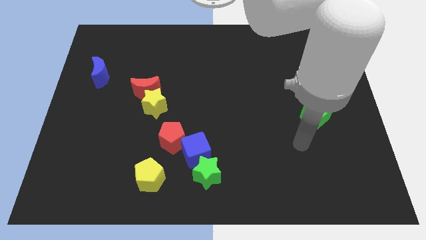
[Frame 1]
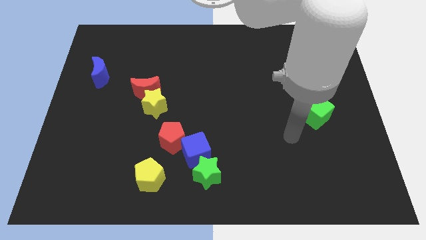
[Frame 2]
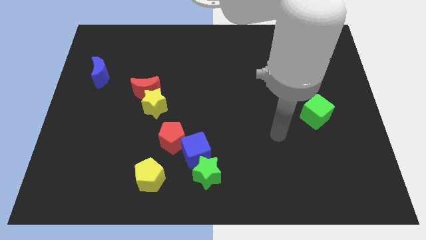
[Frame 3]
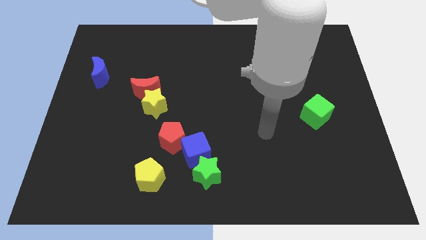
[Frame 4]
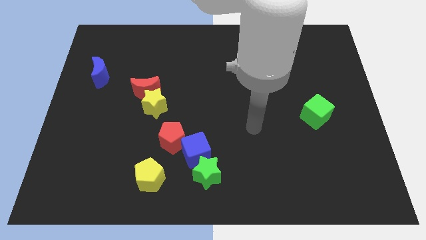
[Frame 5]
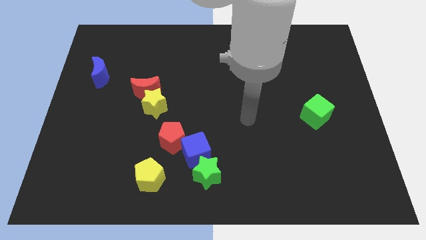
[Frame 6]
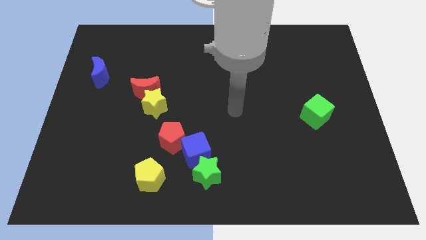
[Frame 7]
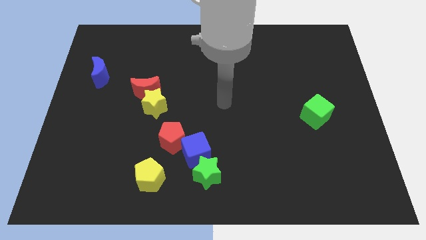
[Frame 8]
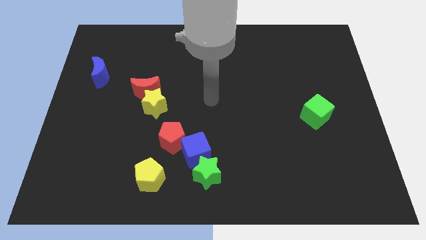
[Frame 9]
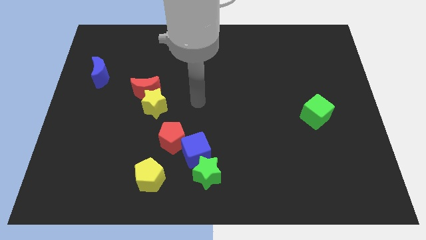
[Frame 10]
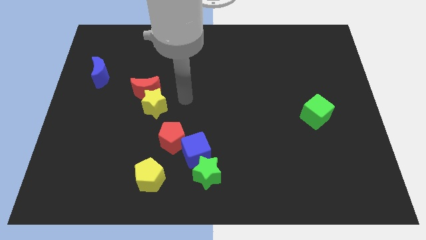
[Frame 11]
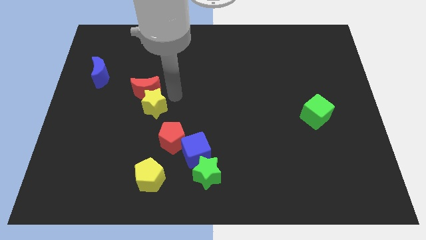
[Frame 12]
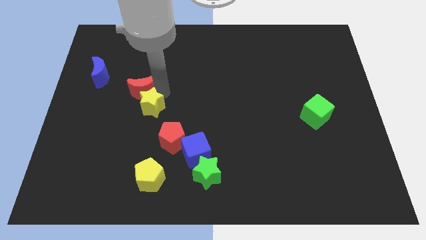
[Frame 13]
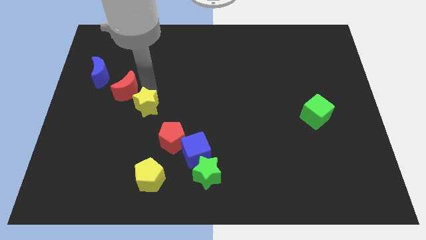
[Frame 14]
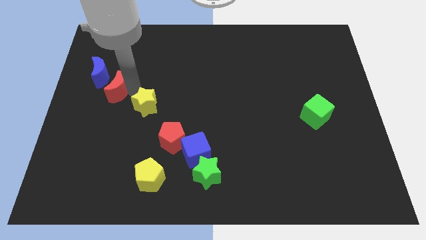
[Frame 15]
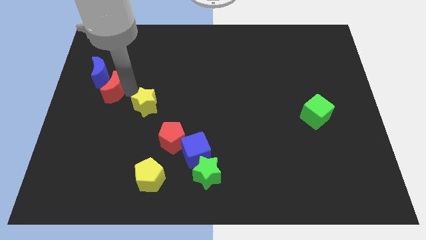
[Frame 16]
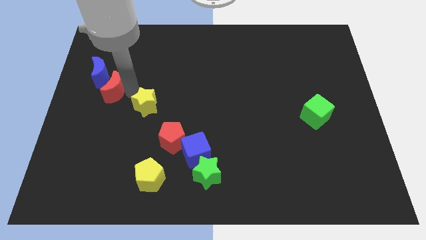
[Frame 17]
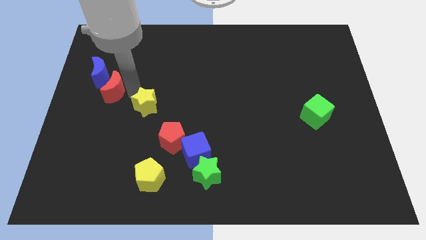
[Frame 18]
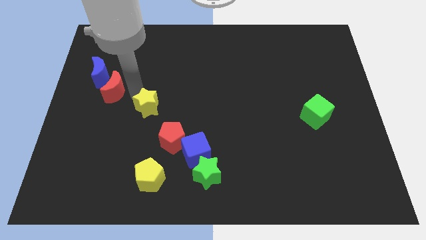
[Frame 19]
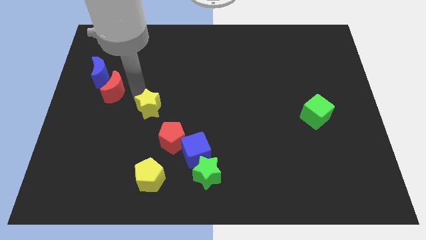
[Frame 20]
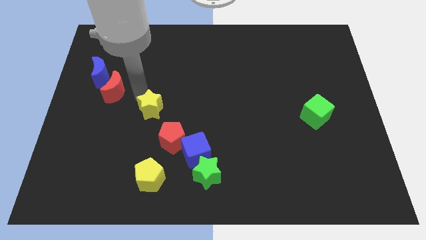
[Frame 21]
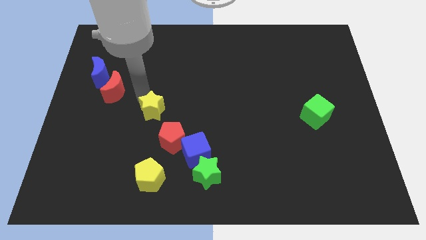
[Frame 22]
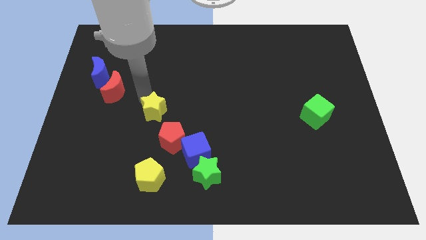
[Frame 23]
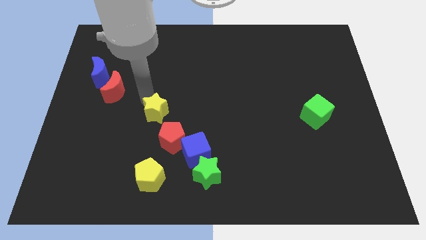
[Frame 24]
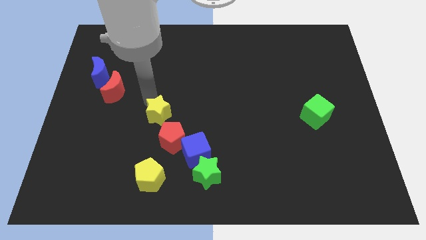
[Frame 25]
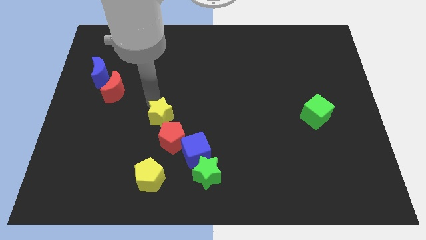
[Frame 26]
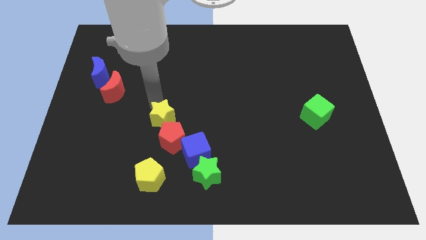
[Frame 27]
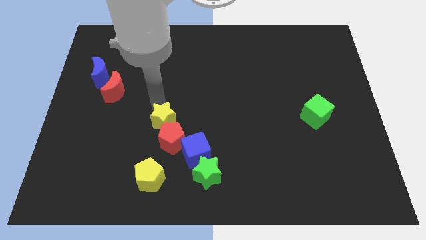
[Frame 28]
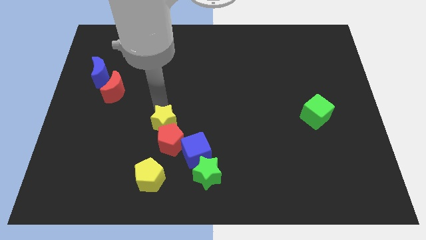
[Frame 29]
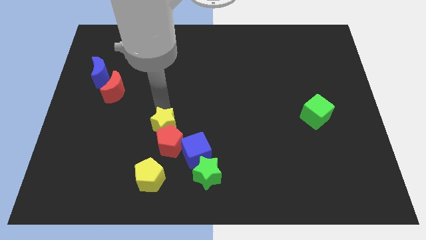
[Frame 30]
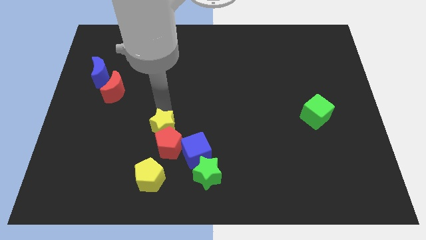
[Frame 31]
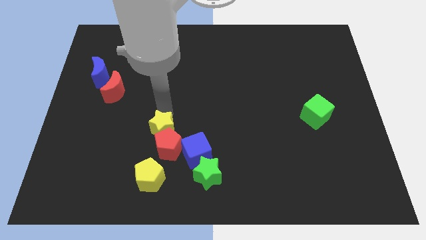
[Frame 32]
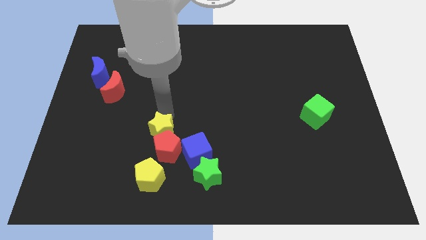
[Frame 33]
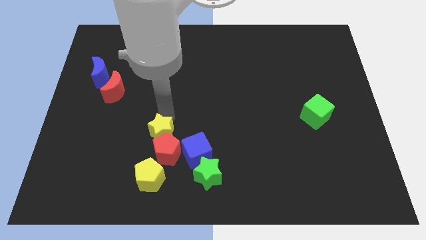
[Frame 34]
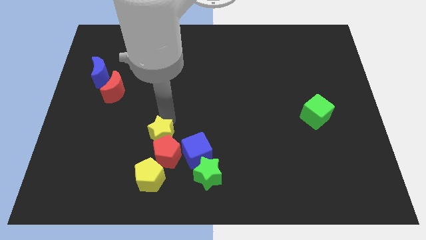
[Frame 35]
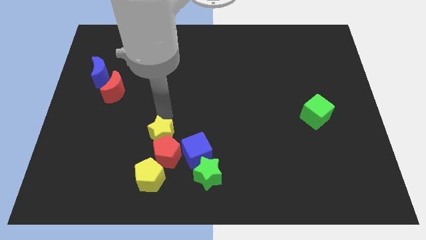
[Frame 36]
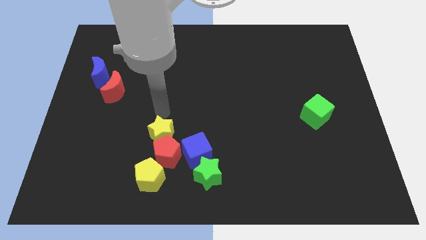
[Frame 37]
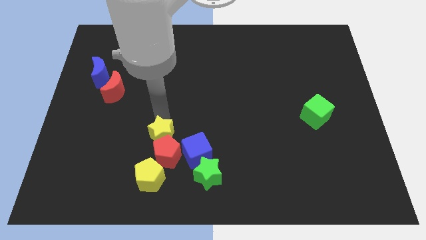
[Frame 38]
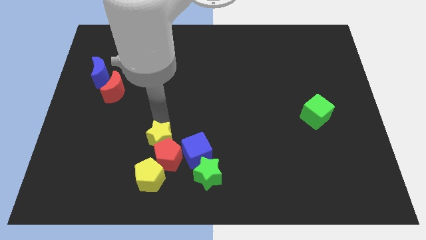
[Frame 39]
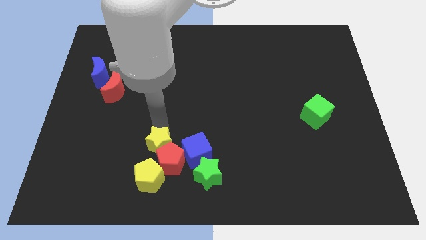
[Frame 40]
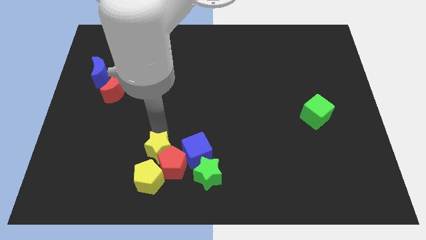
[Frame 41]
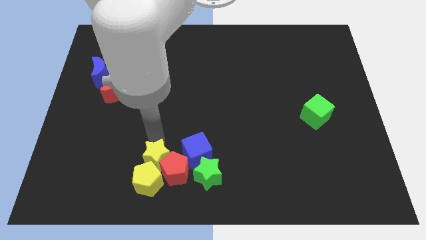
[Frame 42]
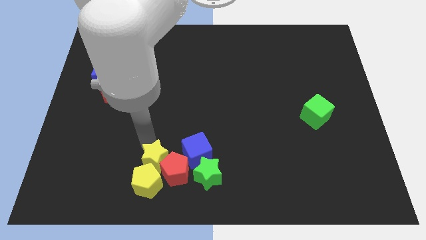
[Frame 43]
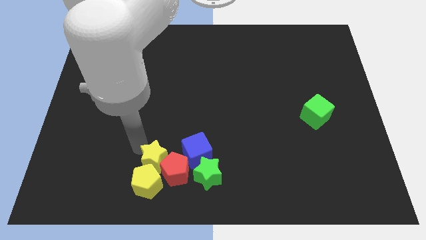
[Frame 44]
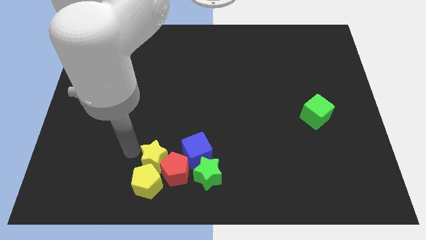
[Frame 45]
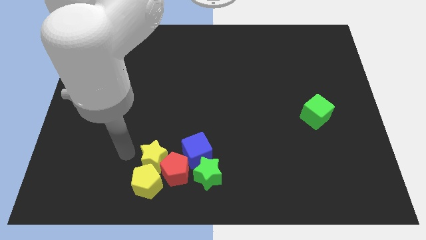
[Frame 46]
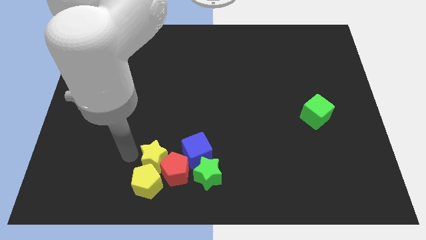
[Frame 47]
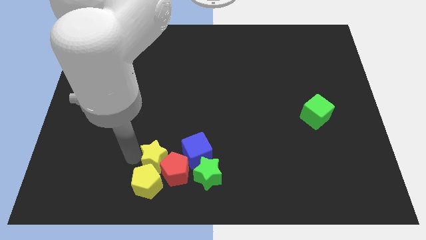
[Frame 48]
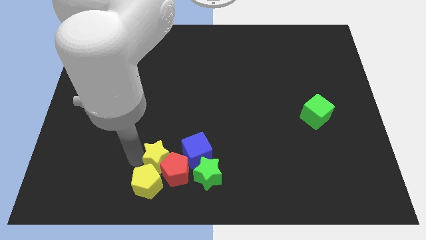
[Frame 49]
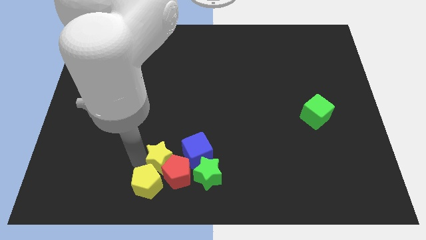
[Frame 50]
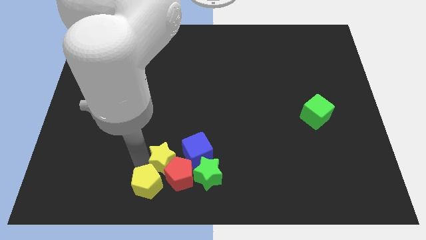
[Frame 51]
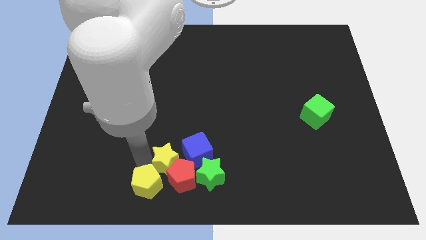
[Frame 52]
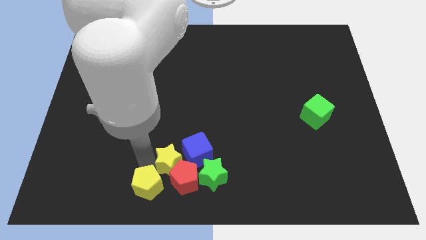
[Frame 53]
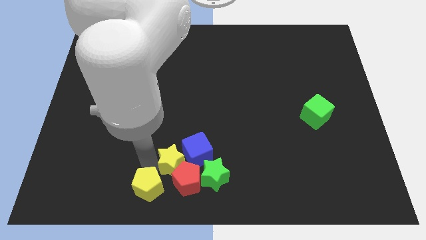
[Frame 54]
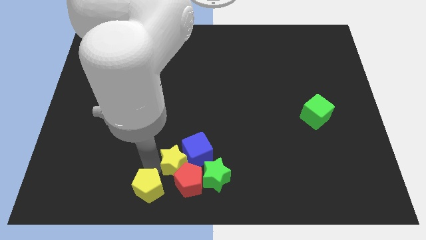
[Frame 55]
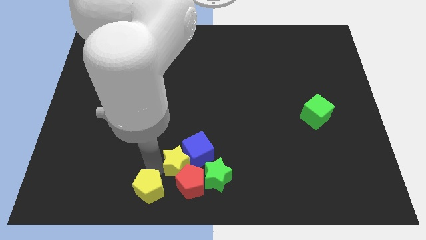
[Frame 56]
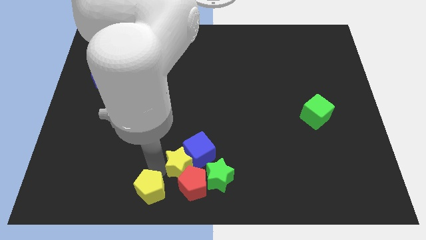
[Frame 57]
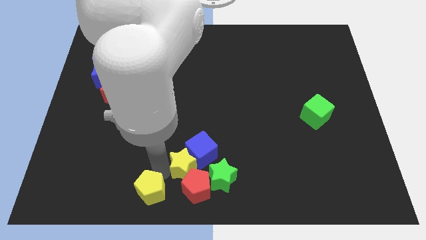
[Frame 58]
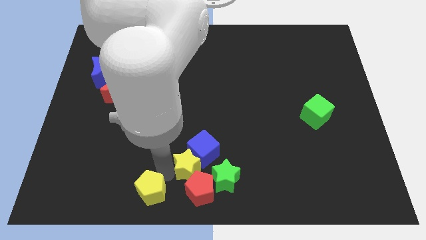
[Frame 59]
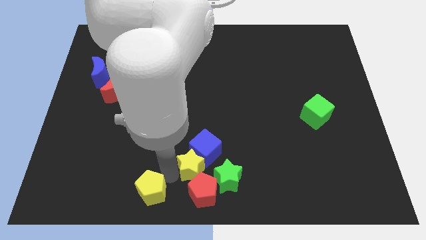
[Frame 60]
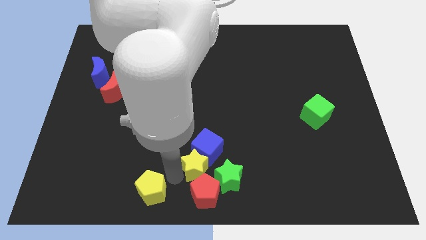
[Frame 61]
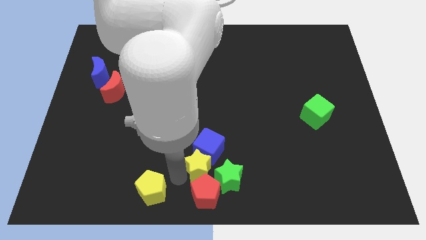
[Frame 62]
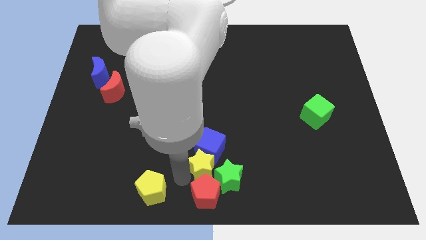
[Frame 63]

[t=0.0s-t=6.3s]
put the yellow star to the green star

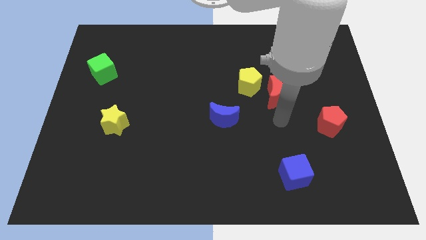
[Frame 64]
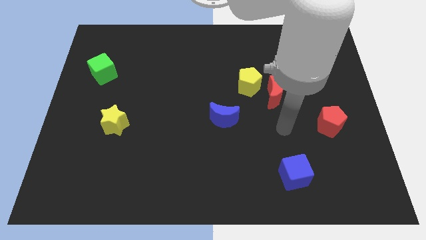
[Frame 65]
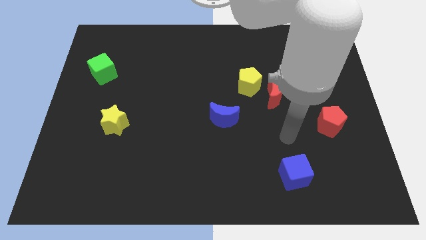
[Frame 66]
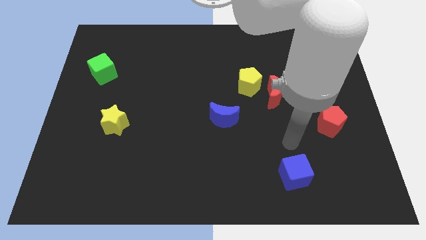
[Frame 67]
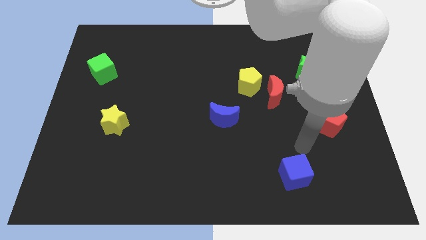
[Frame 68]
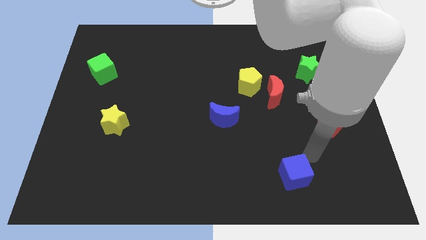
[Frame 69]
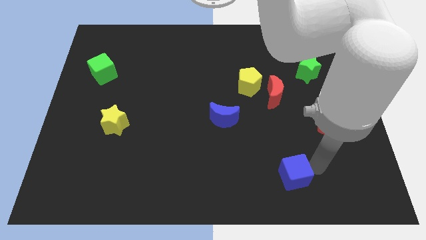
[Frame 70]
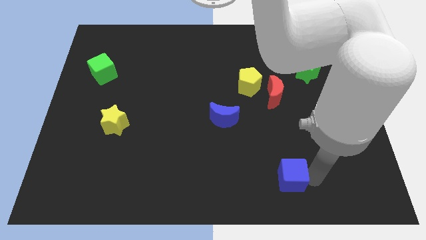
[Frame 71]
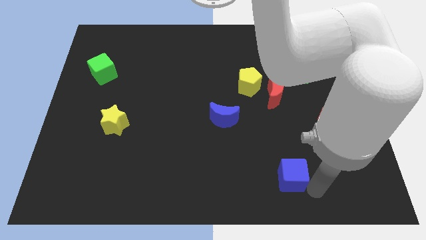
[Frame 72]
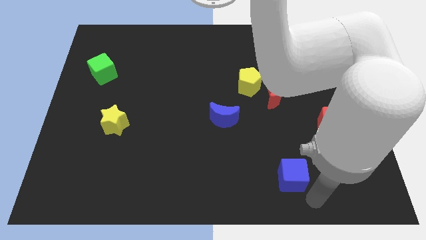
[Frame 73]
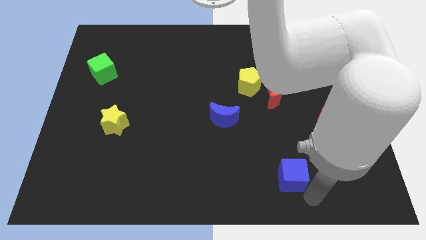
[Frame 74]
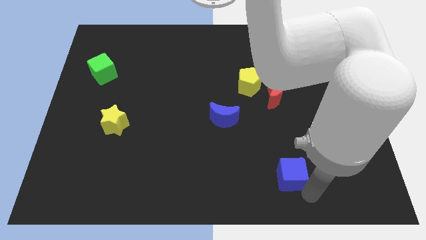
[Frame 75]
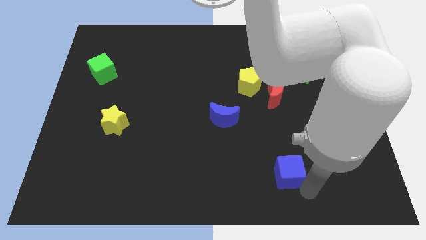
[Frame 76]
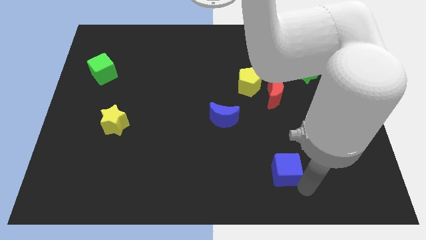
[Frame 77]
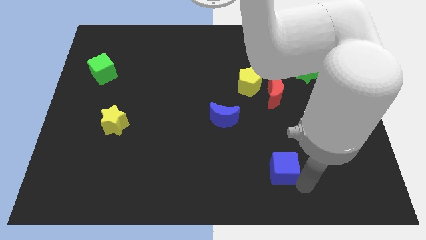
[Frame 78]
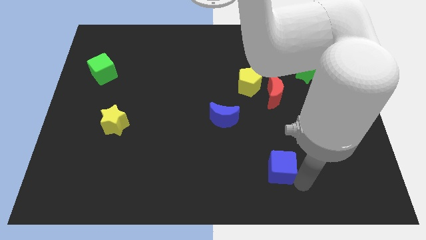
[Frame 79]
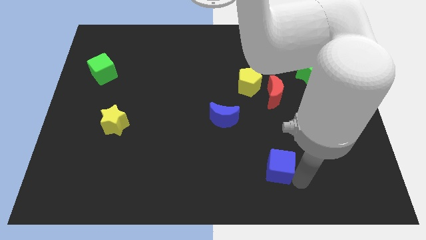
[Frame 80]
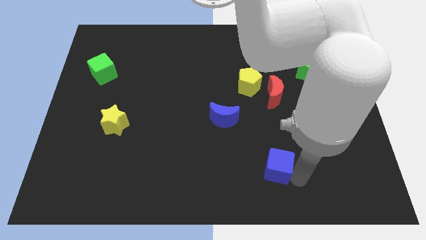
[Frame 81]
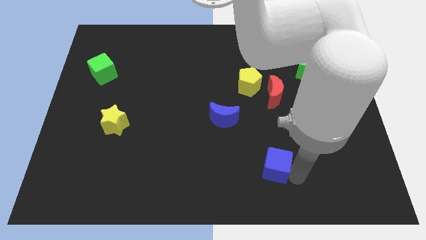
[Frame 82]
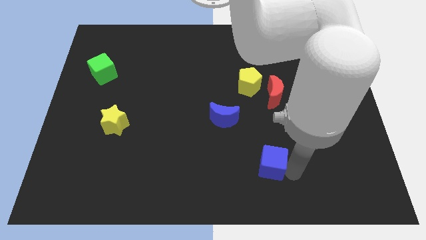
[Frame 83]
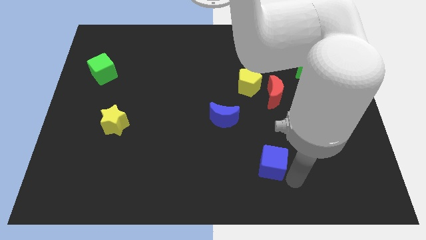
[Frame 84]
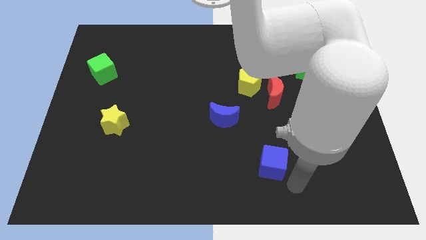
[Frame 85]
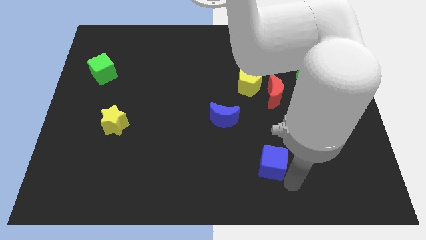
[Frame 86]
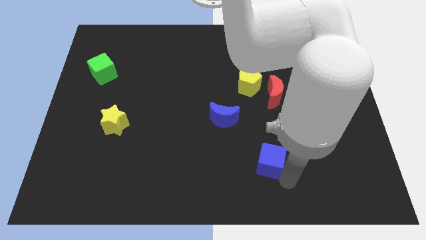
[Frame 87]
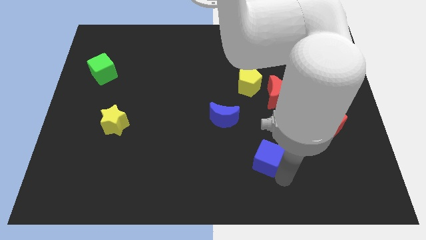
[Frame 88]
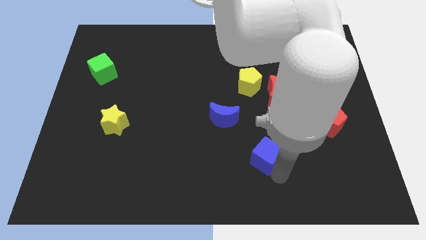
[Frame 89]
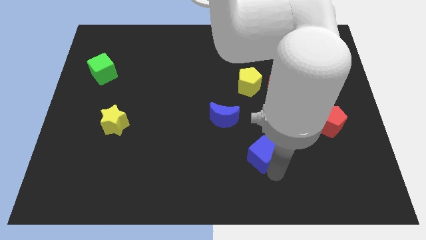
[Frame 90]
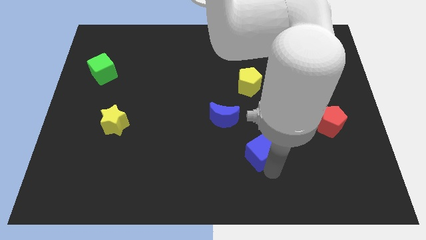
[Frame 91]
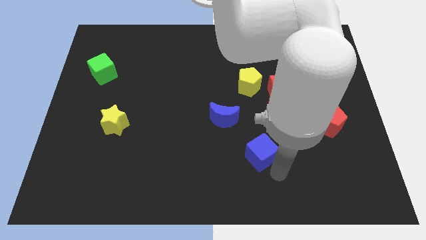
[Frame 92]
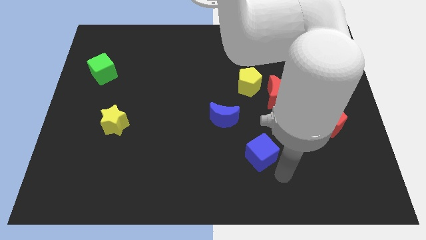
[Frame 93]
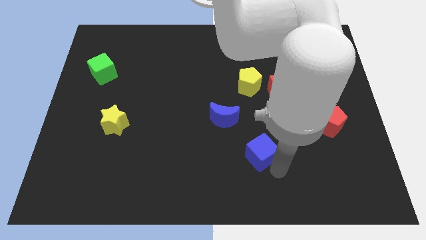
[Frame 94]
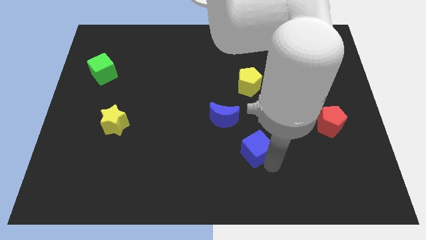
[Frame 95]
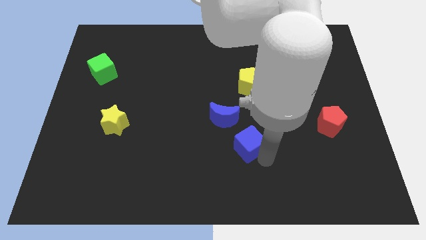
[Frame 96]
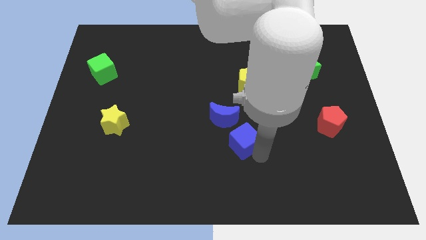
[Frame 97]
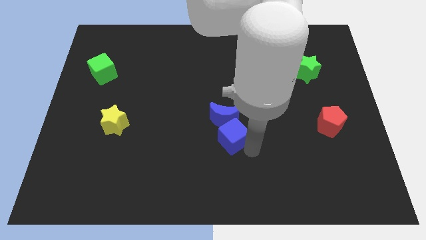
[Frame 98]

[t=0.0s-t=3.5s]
push the blue cube next to the blue moon
